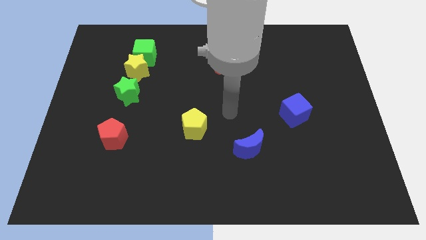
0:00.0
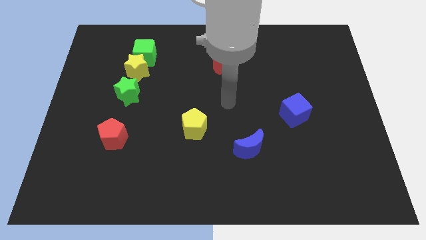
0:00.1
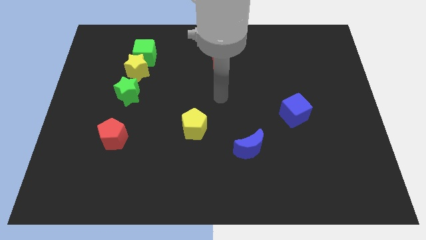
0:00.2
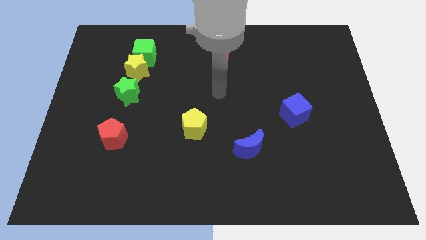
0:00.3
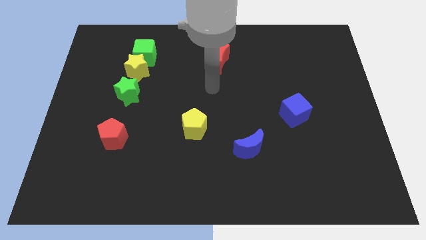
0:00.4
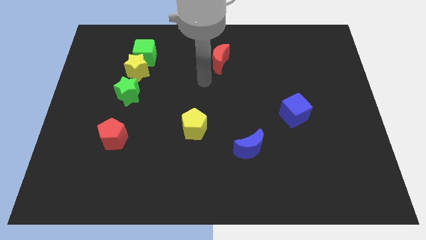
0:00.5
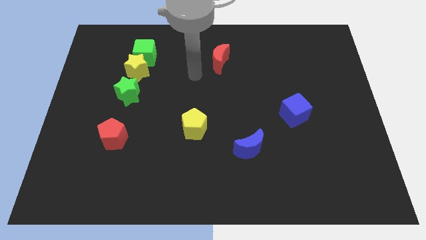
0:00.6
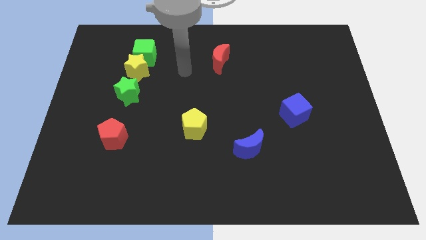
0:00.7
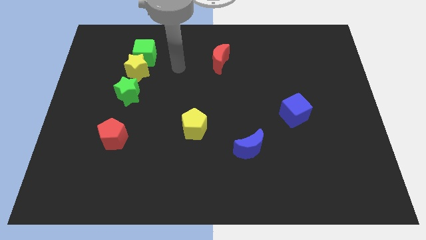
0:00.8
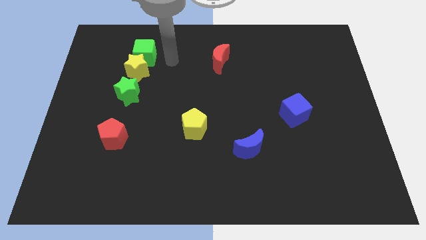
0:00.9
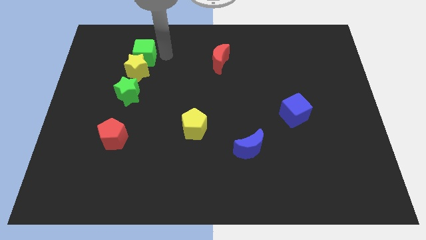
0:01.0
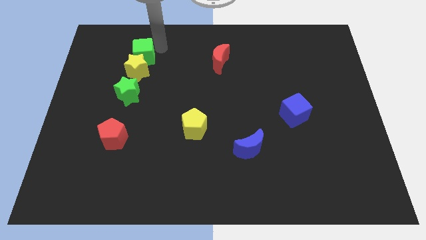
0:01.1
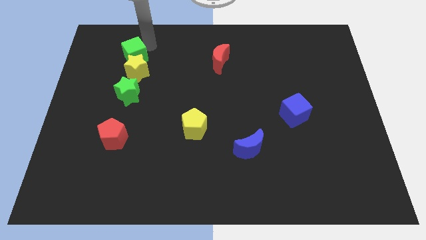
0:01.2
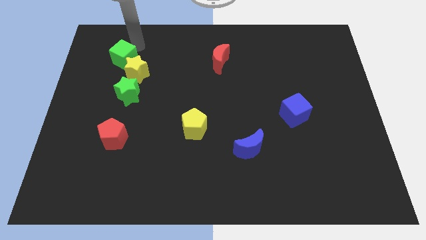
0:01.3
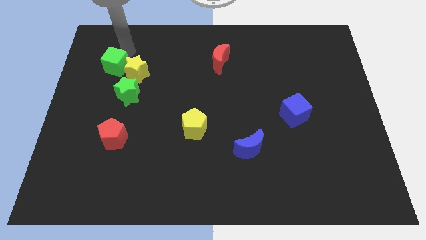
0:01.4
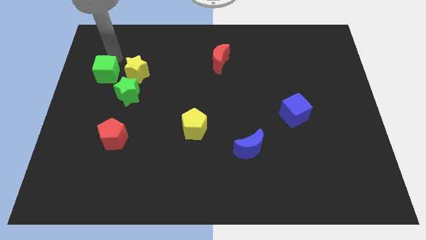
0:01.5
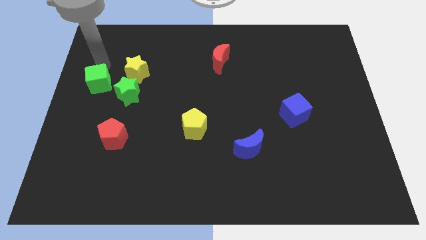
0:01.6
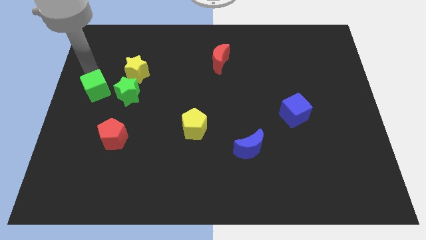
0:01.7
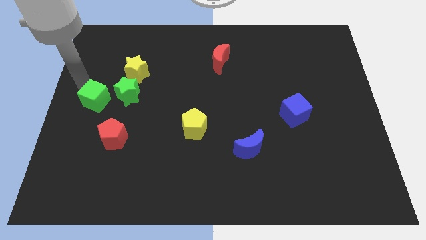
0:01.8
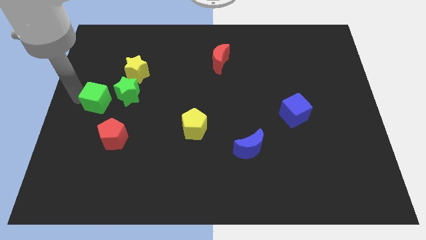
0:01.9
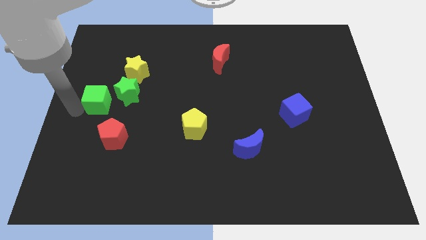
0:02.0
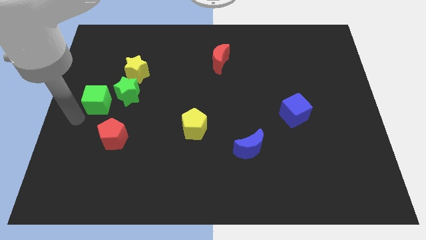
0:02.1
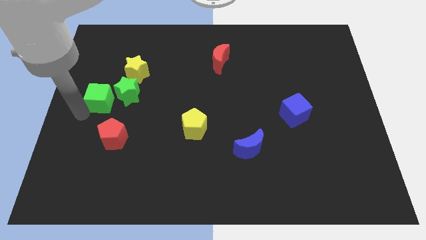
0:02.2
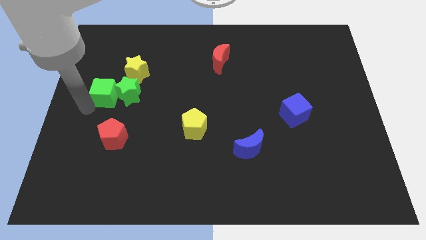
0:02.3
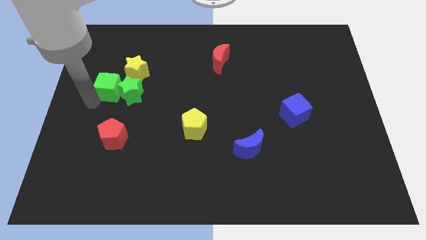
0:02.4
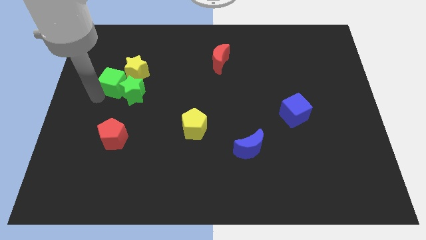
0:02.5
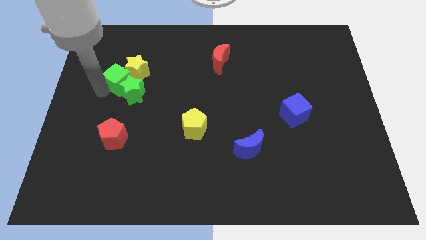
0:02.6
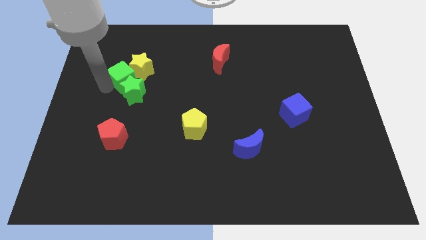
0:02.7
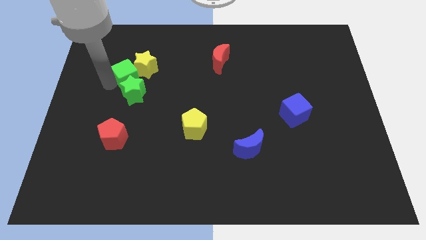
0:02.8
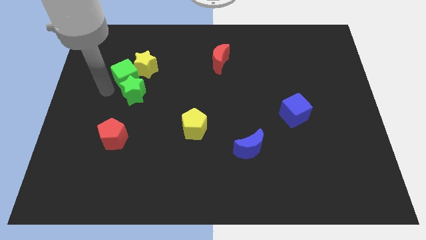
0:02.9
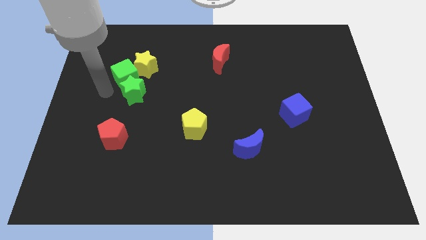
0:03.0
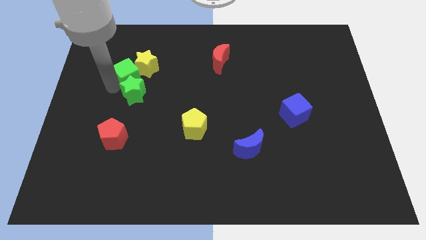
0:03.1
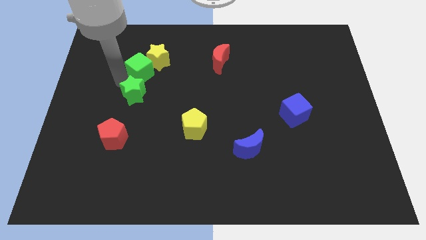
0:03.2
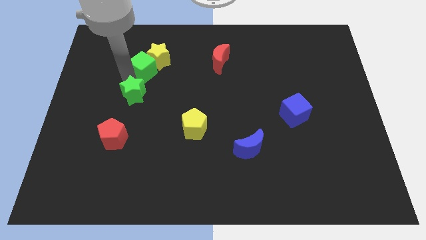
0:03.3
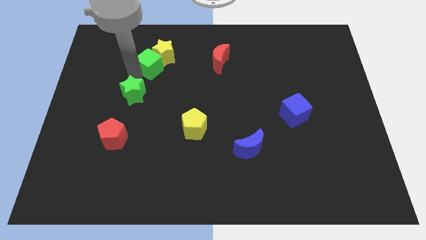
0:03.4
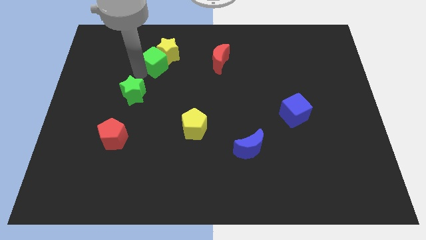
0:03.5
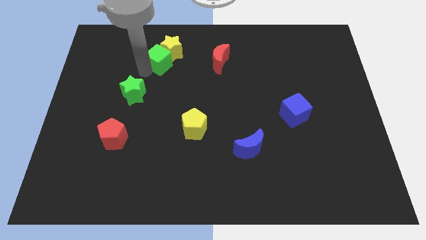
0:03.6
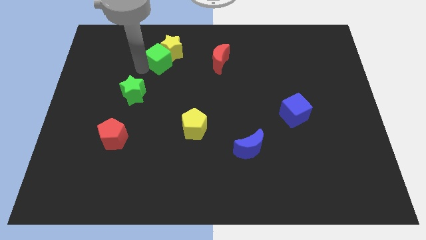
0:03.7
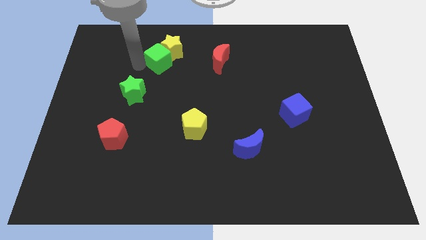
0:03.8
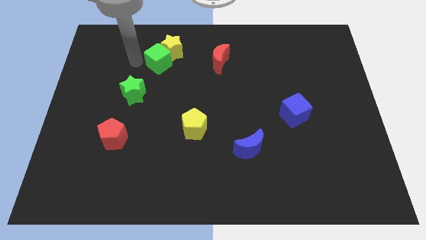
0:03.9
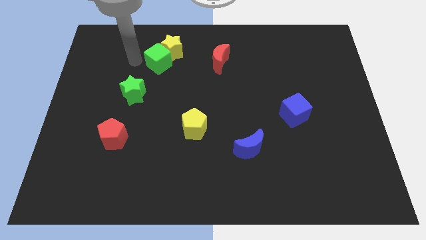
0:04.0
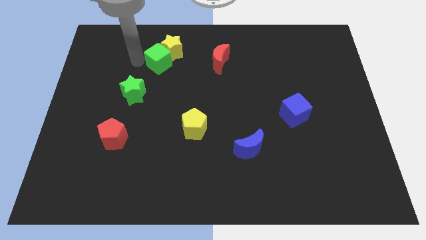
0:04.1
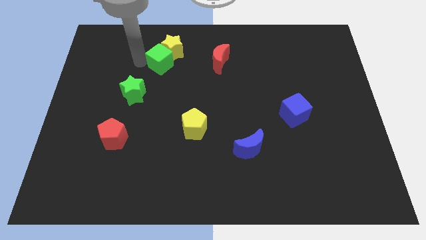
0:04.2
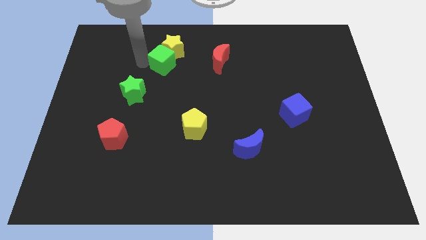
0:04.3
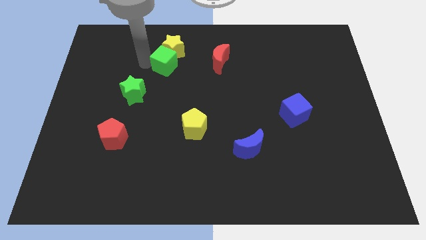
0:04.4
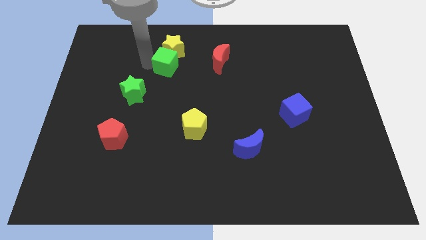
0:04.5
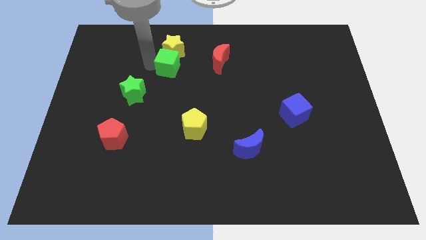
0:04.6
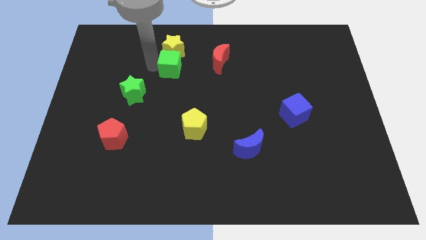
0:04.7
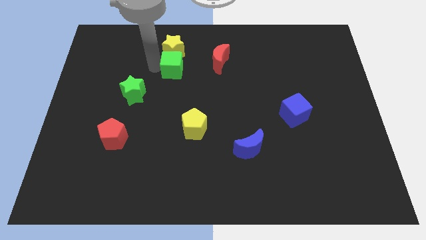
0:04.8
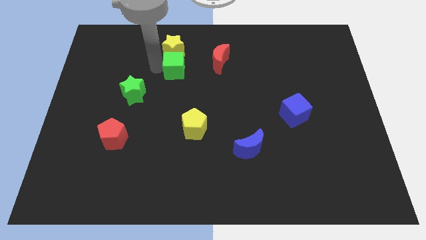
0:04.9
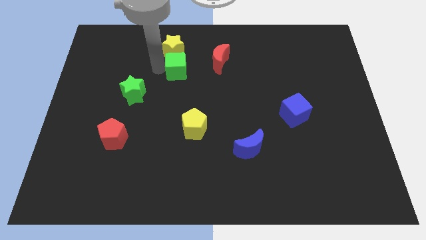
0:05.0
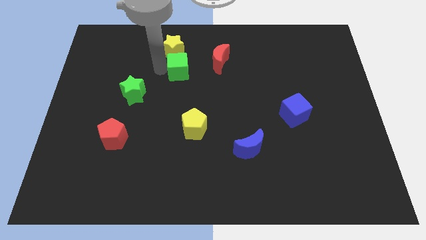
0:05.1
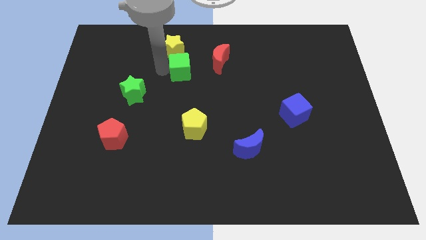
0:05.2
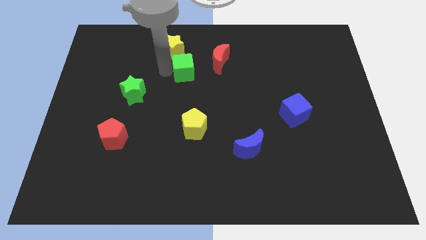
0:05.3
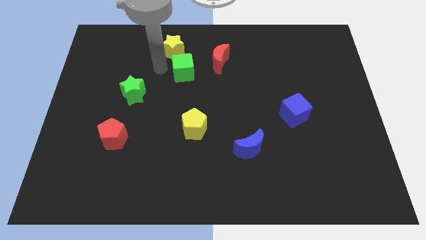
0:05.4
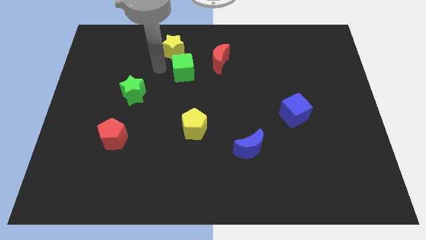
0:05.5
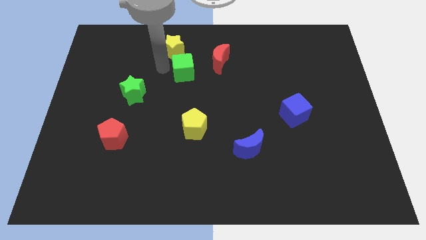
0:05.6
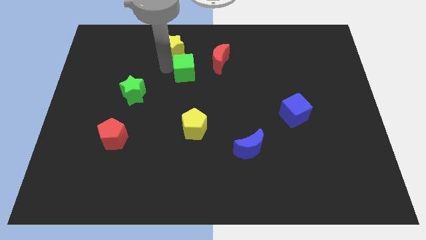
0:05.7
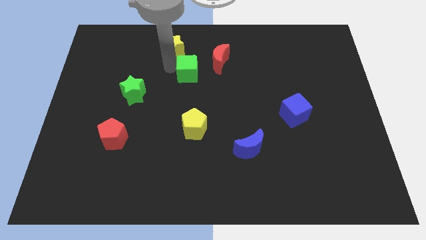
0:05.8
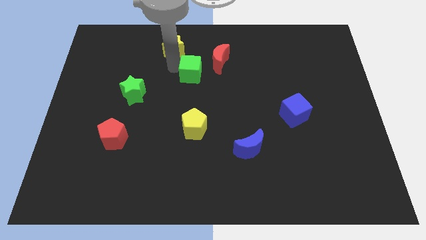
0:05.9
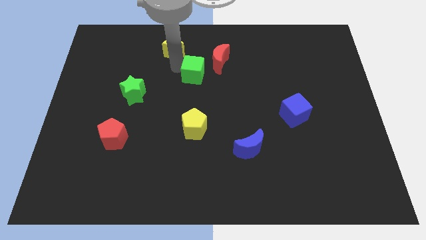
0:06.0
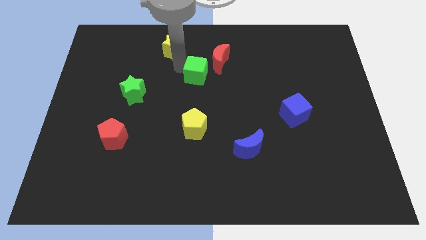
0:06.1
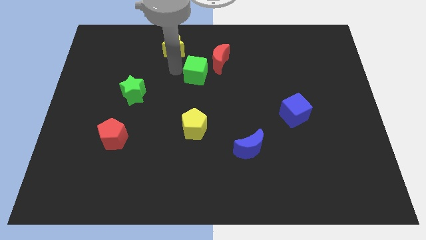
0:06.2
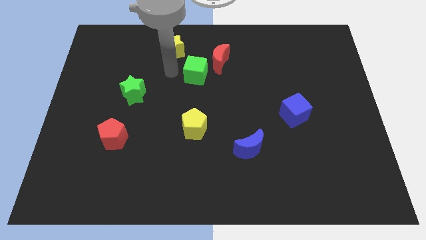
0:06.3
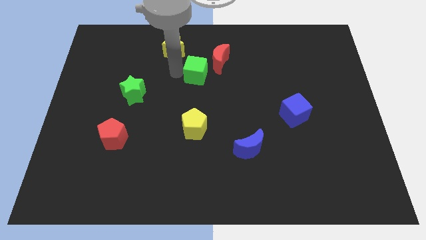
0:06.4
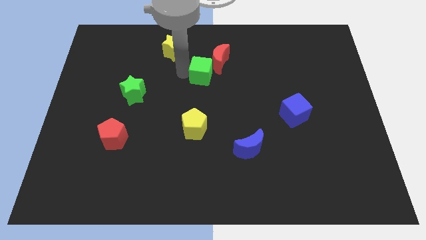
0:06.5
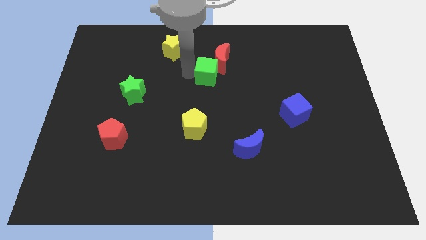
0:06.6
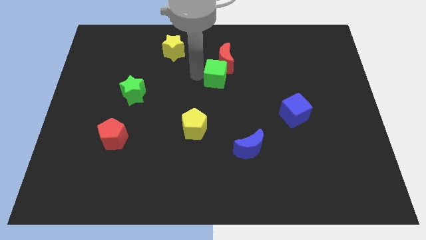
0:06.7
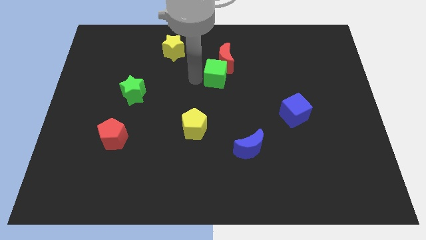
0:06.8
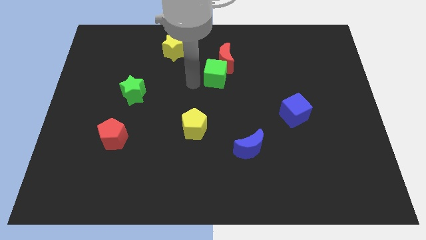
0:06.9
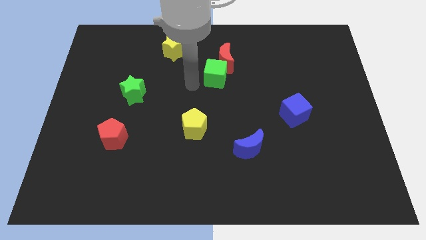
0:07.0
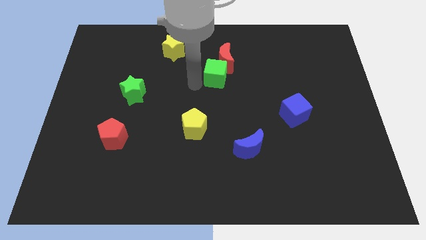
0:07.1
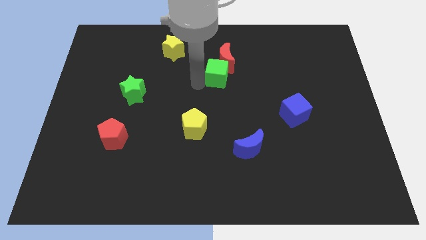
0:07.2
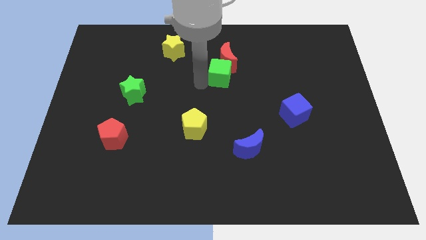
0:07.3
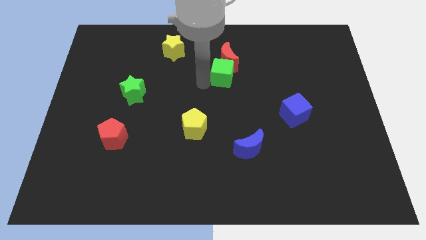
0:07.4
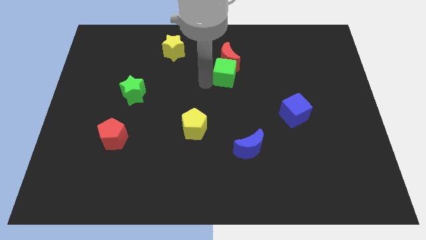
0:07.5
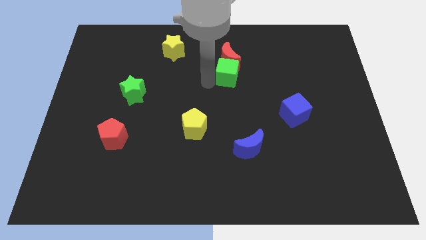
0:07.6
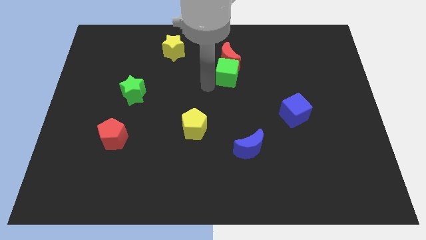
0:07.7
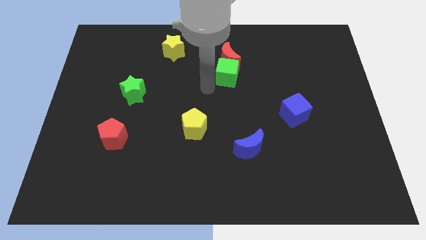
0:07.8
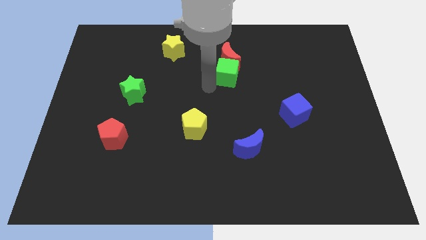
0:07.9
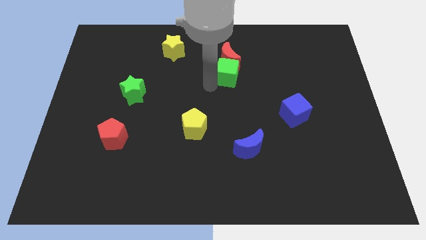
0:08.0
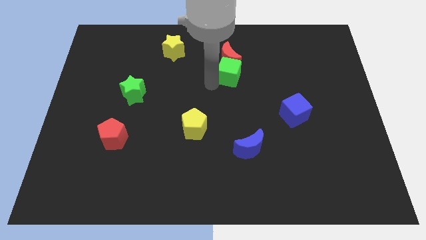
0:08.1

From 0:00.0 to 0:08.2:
move the green cube right
